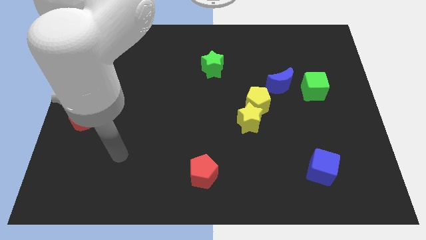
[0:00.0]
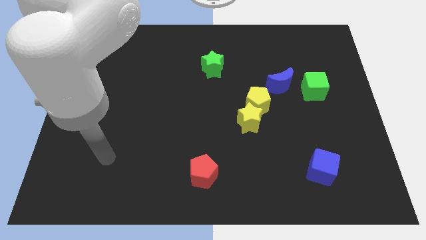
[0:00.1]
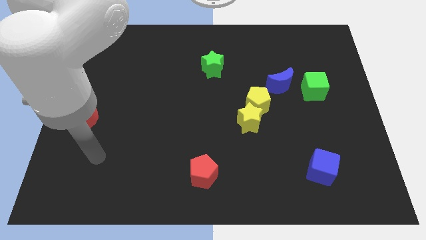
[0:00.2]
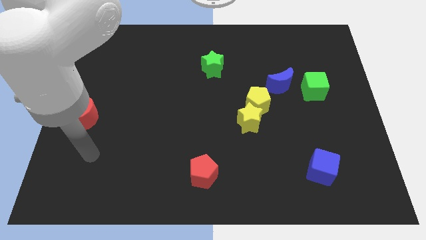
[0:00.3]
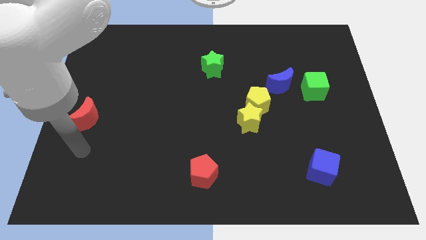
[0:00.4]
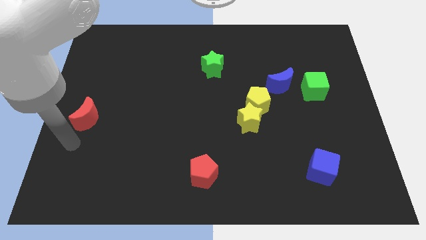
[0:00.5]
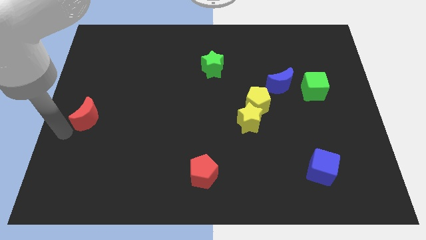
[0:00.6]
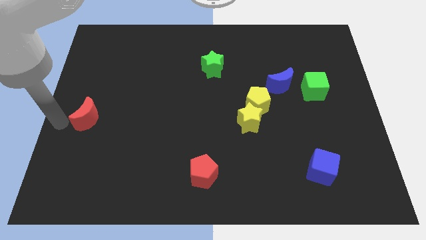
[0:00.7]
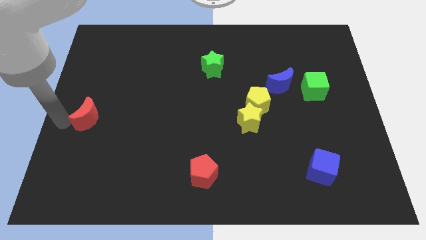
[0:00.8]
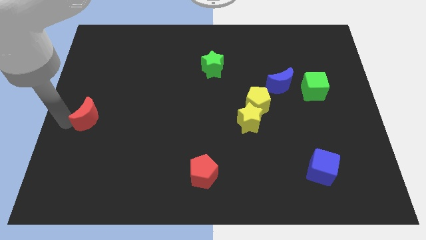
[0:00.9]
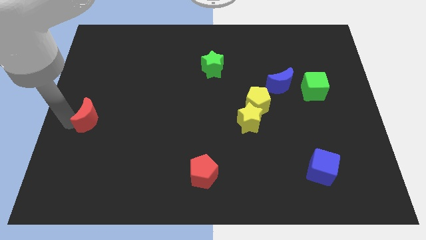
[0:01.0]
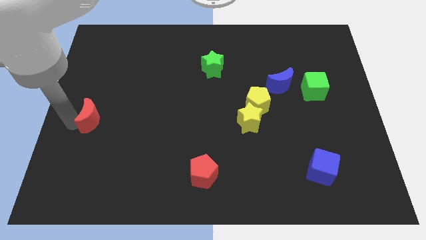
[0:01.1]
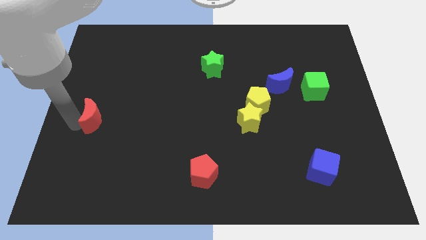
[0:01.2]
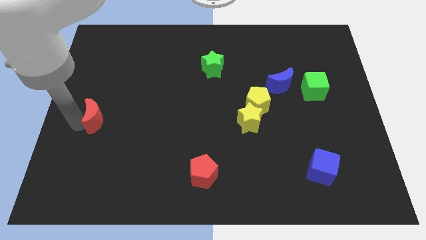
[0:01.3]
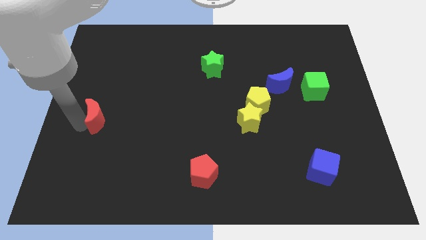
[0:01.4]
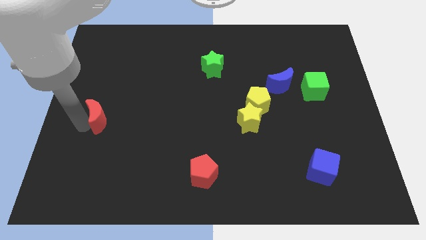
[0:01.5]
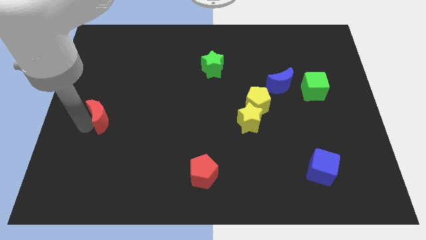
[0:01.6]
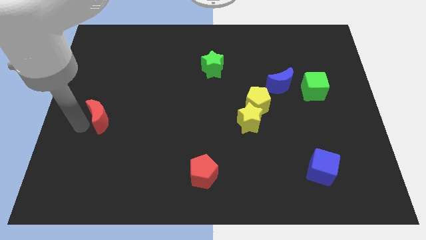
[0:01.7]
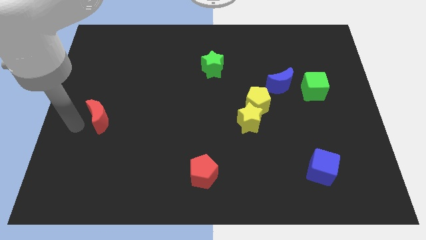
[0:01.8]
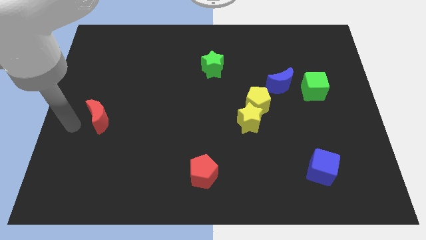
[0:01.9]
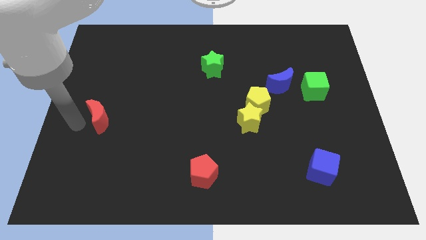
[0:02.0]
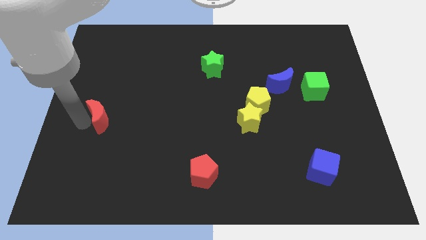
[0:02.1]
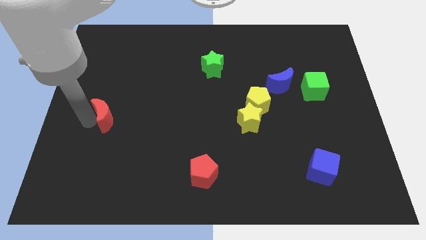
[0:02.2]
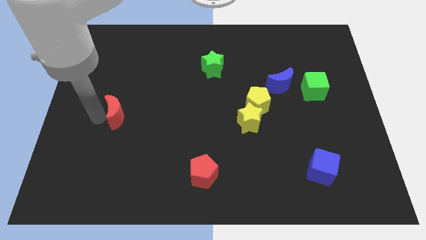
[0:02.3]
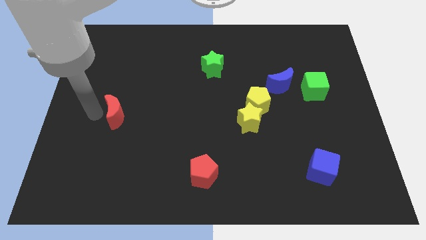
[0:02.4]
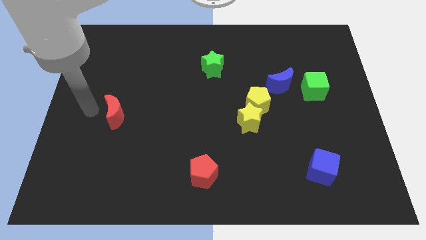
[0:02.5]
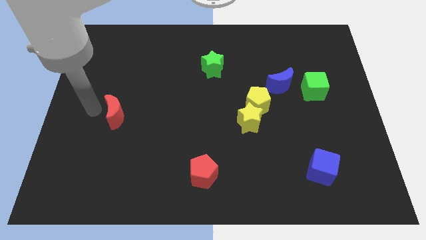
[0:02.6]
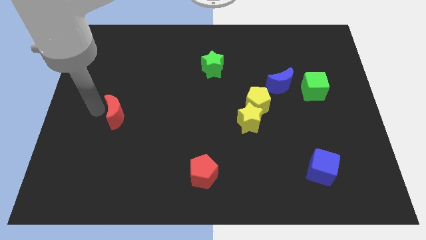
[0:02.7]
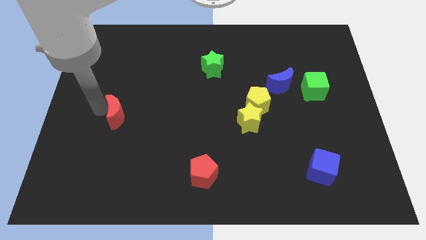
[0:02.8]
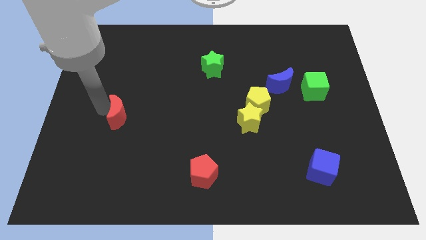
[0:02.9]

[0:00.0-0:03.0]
slightly move the red moon right

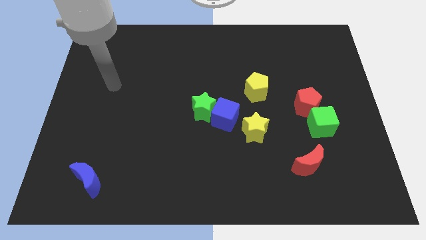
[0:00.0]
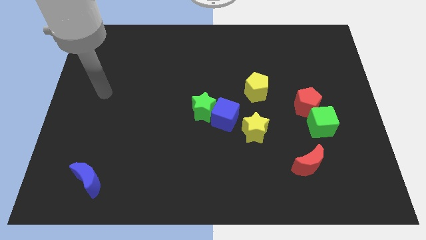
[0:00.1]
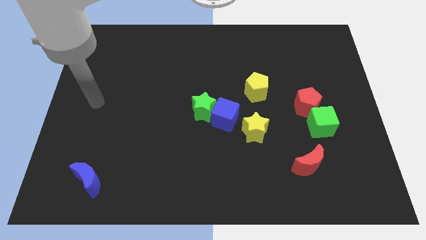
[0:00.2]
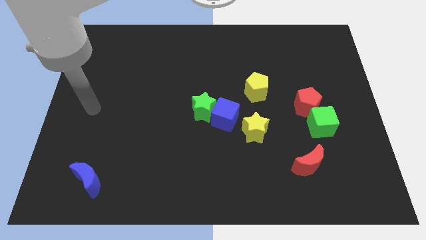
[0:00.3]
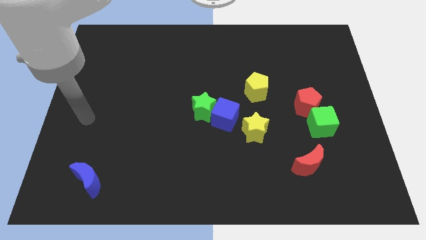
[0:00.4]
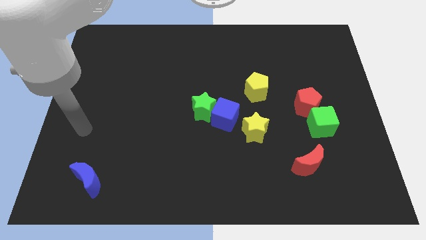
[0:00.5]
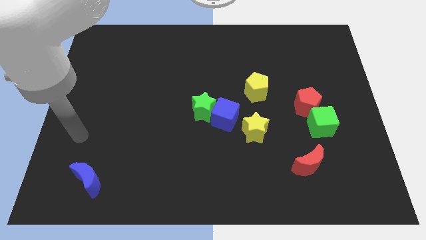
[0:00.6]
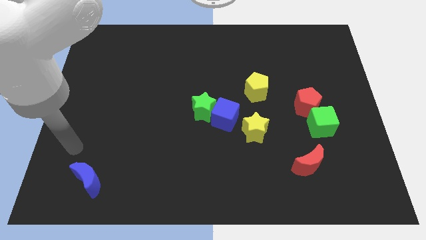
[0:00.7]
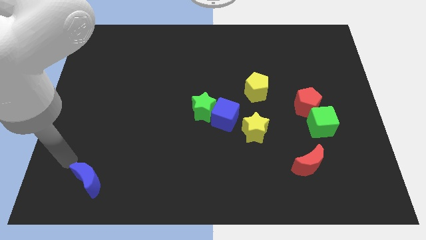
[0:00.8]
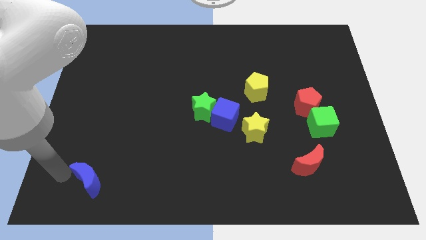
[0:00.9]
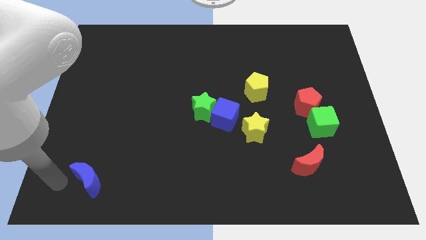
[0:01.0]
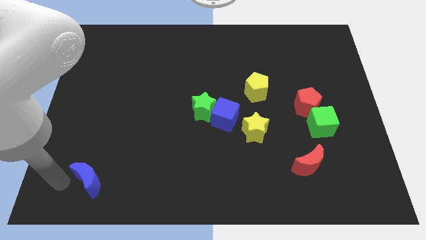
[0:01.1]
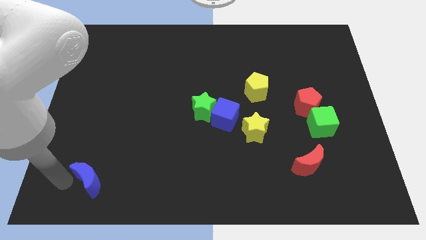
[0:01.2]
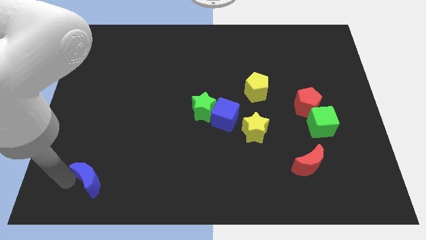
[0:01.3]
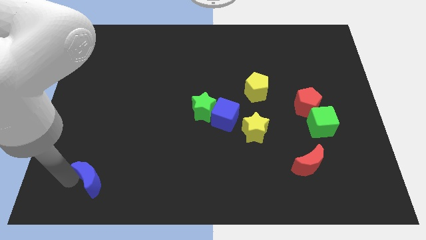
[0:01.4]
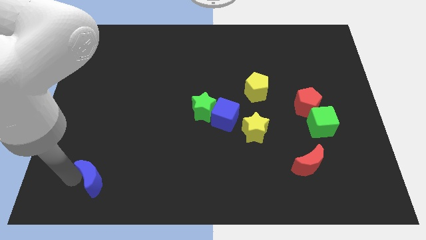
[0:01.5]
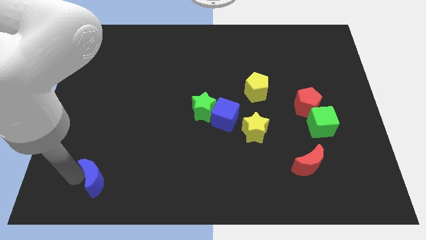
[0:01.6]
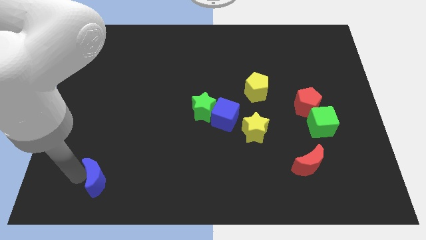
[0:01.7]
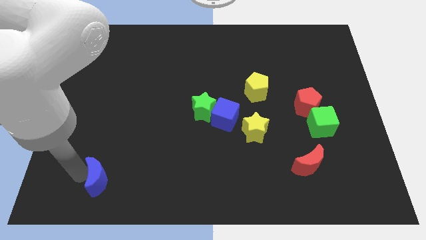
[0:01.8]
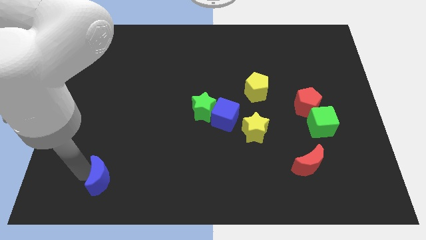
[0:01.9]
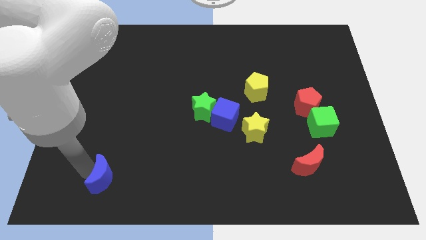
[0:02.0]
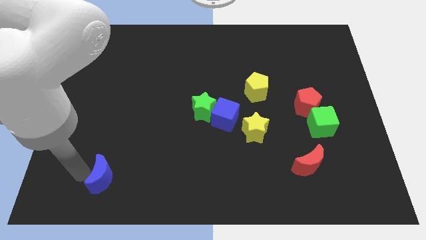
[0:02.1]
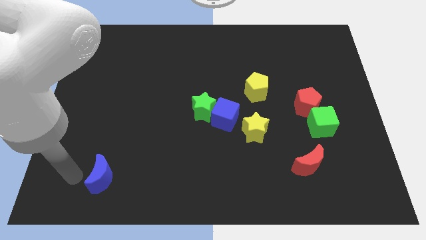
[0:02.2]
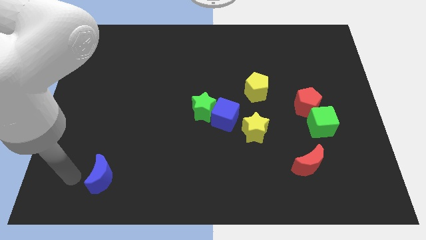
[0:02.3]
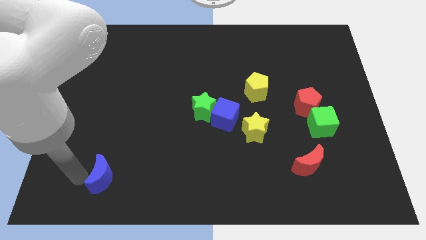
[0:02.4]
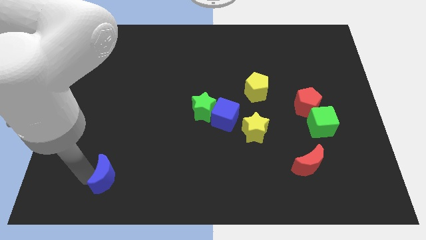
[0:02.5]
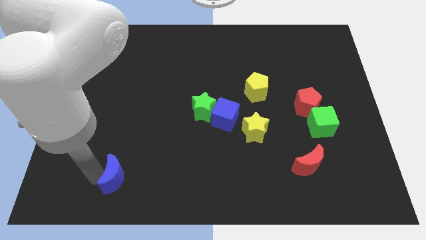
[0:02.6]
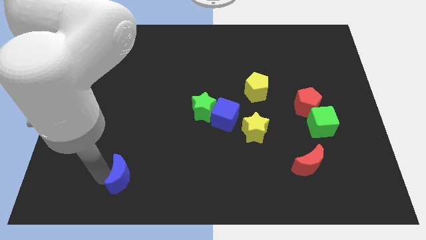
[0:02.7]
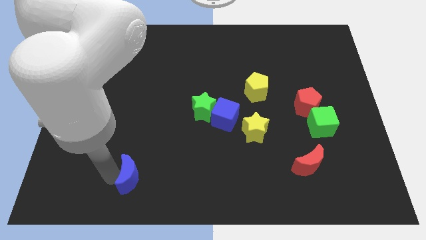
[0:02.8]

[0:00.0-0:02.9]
slide the blue moon a little to the right

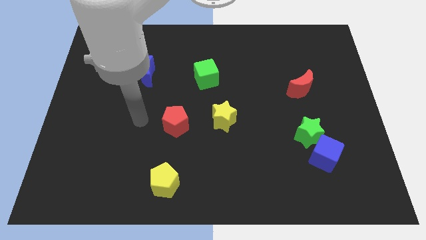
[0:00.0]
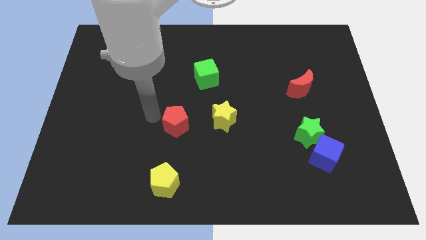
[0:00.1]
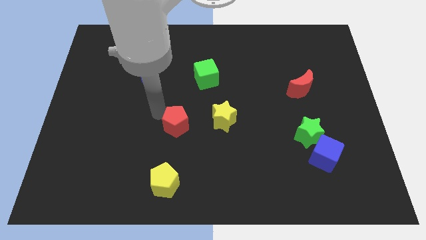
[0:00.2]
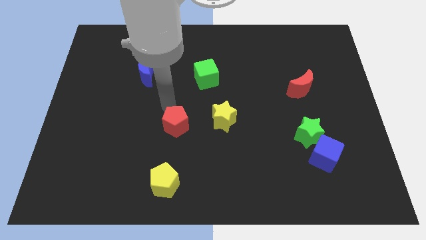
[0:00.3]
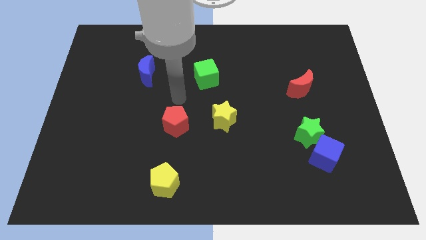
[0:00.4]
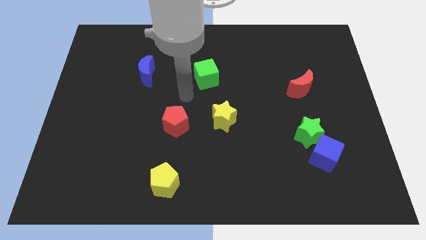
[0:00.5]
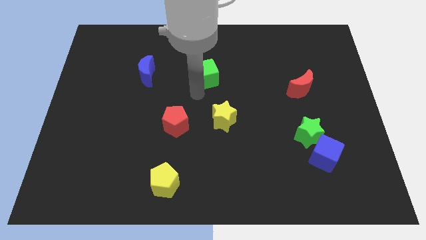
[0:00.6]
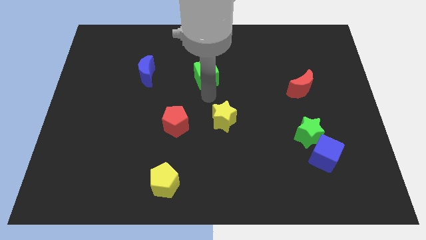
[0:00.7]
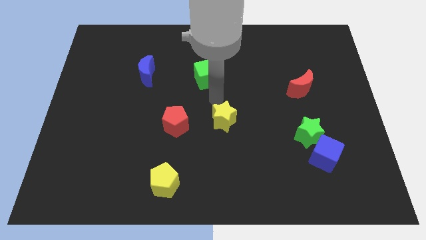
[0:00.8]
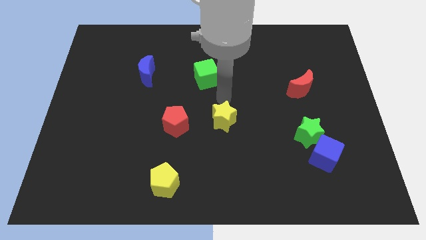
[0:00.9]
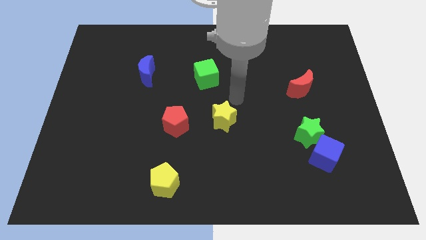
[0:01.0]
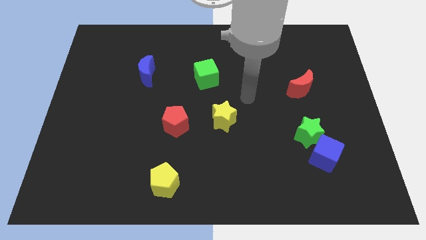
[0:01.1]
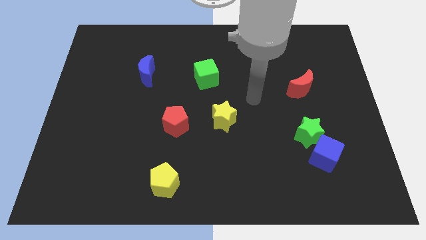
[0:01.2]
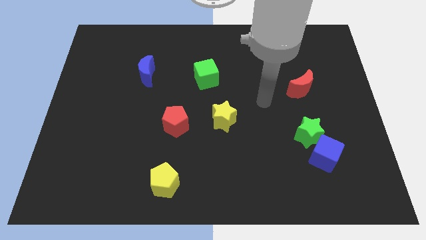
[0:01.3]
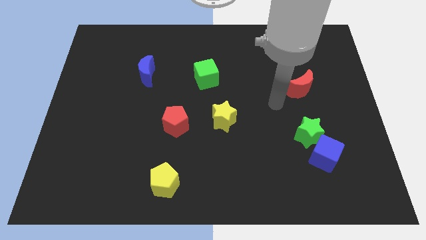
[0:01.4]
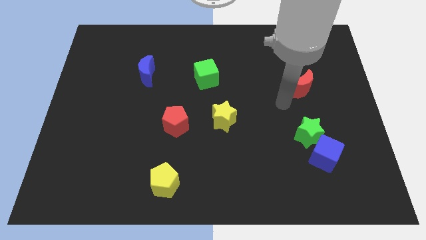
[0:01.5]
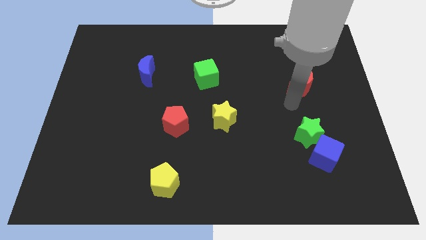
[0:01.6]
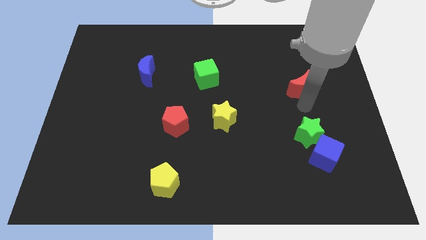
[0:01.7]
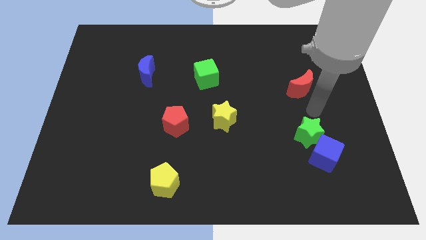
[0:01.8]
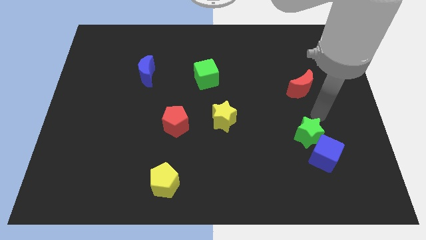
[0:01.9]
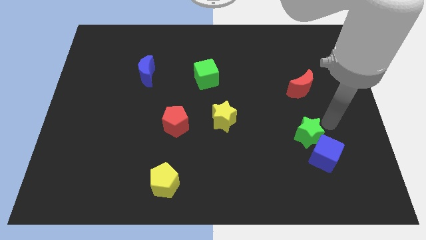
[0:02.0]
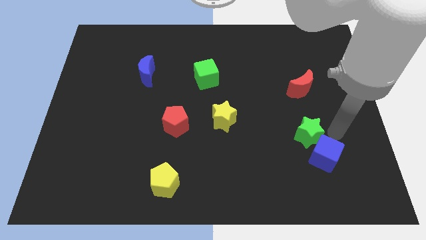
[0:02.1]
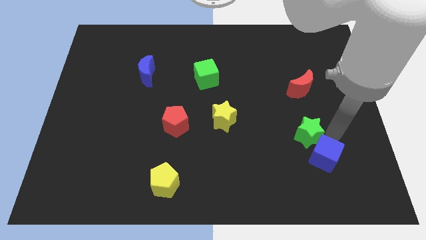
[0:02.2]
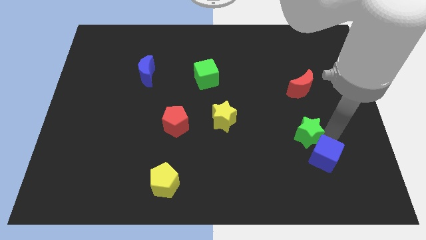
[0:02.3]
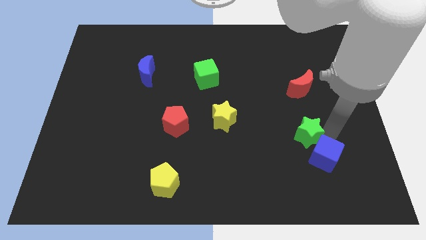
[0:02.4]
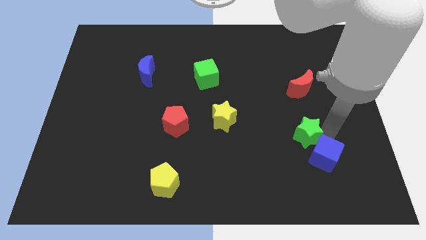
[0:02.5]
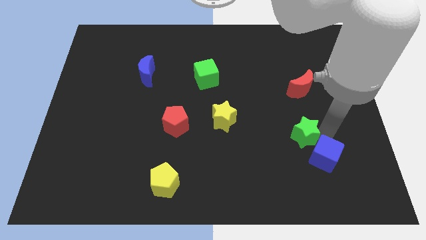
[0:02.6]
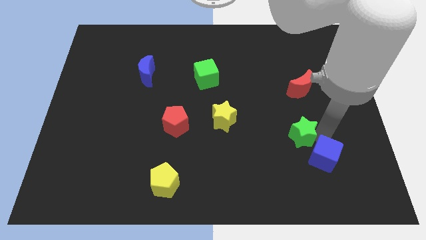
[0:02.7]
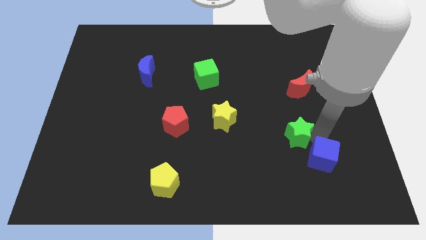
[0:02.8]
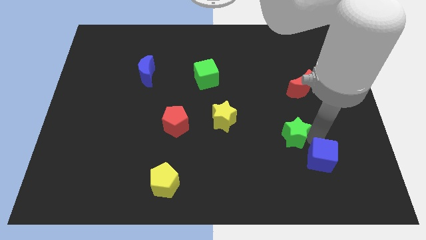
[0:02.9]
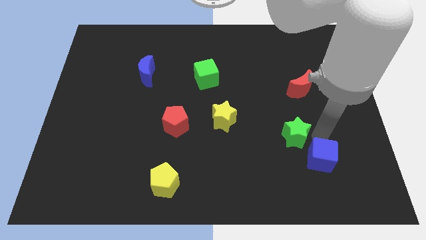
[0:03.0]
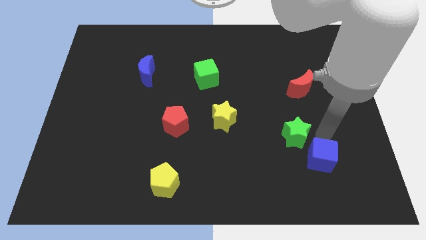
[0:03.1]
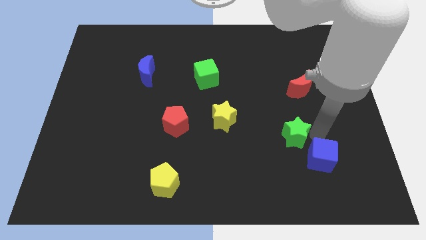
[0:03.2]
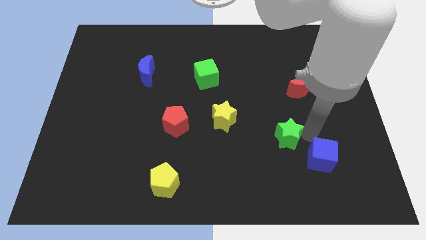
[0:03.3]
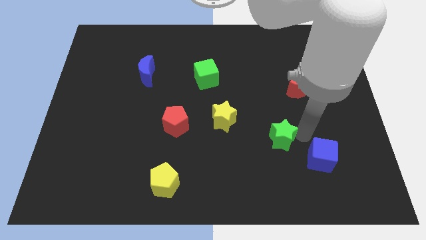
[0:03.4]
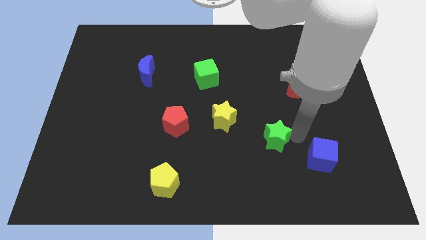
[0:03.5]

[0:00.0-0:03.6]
move the green star a little to the left
